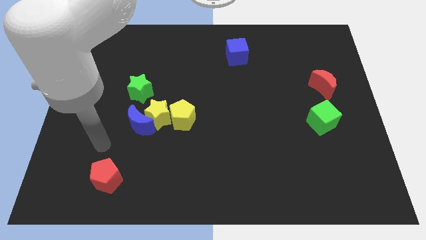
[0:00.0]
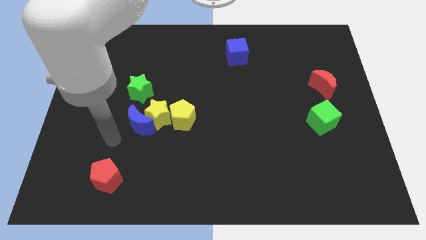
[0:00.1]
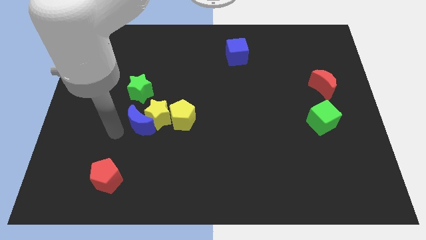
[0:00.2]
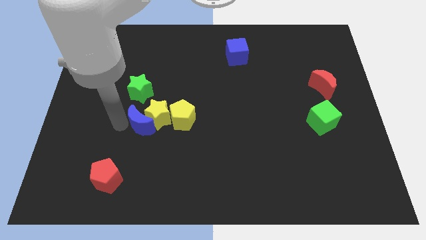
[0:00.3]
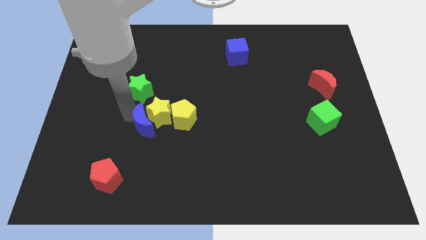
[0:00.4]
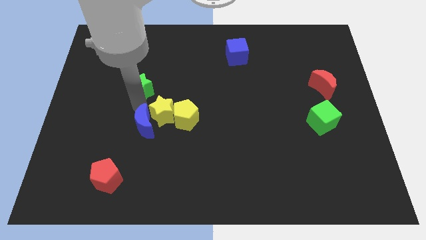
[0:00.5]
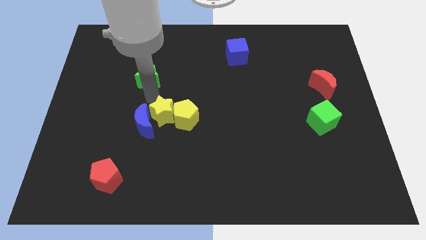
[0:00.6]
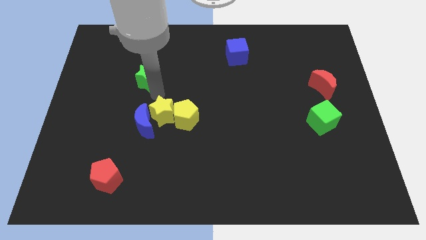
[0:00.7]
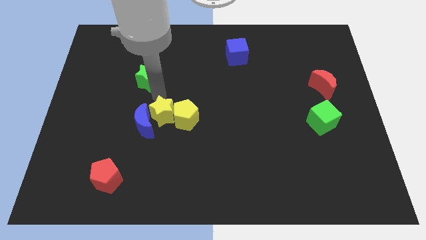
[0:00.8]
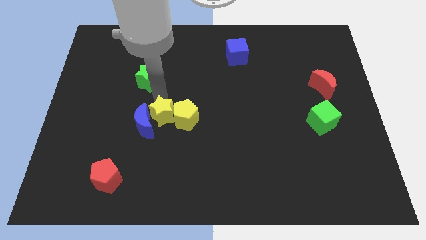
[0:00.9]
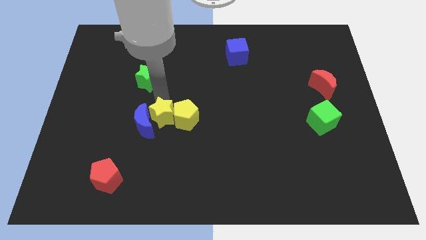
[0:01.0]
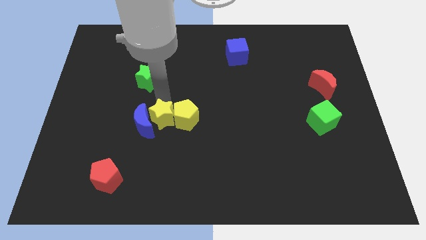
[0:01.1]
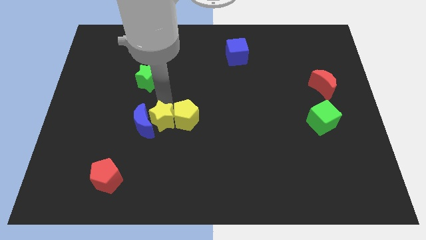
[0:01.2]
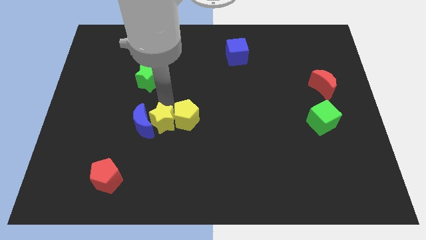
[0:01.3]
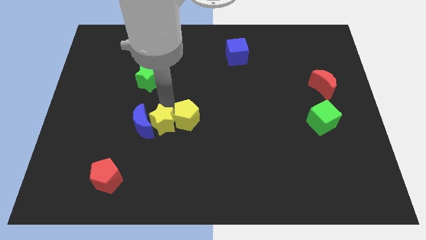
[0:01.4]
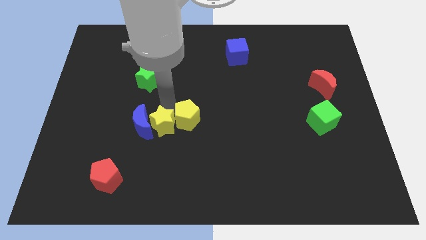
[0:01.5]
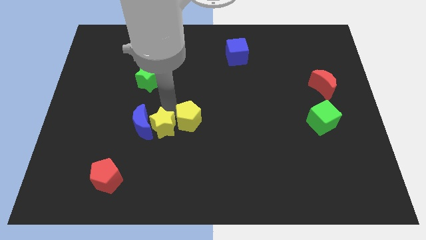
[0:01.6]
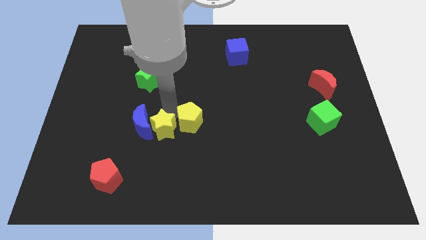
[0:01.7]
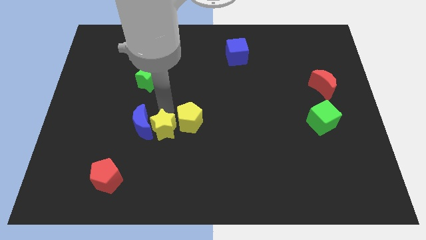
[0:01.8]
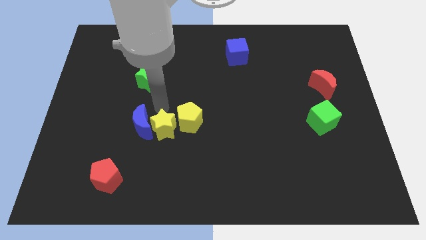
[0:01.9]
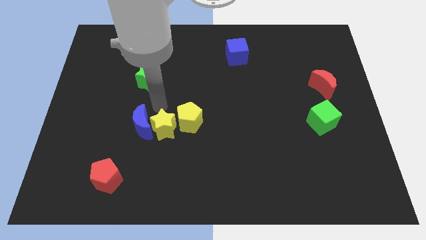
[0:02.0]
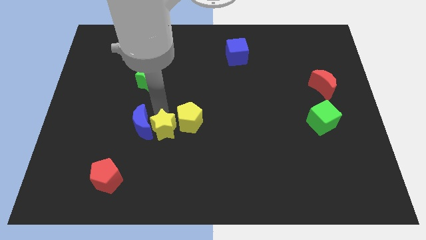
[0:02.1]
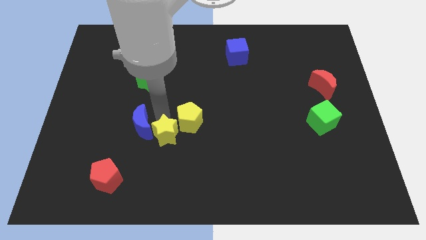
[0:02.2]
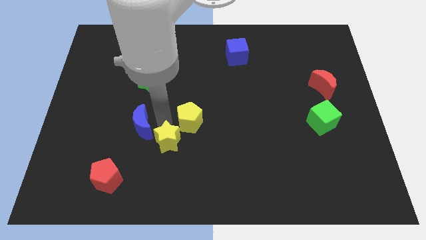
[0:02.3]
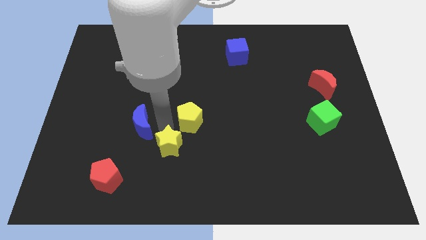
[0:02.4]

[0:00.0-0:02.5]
move the yellow star away from the blue moon, yellow pentagon, and green star

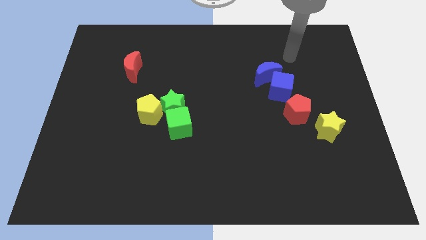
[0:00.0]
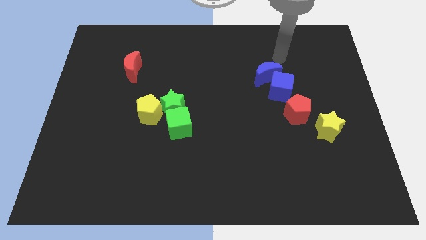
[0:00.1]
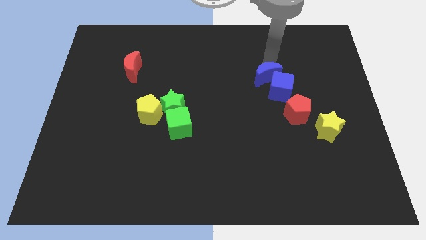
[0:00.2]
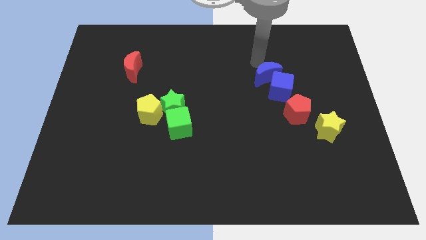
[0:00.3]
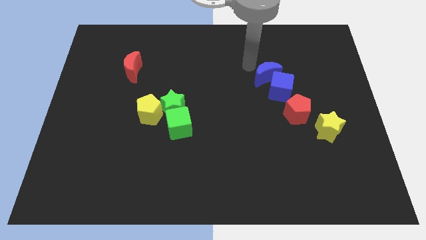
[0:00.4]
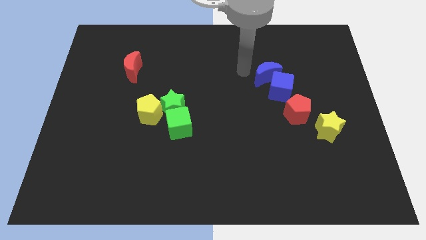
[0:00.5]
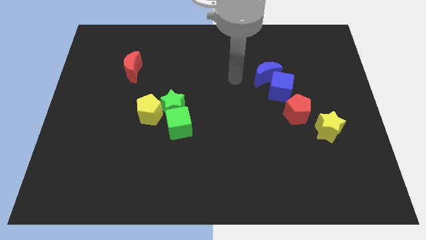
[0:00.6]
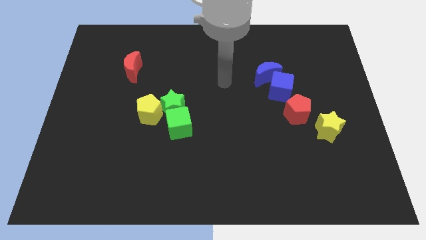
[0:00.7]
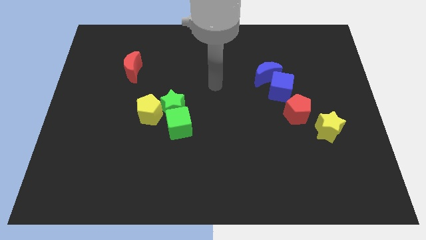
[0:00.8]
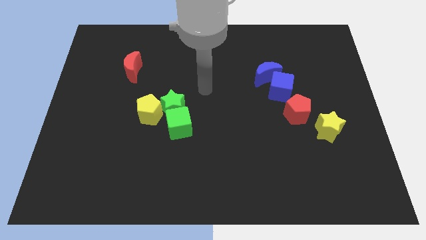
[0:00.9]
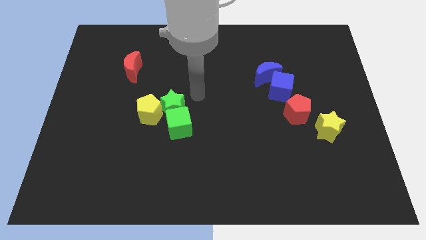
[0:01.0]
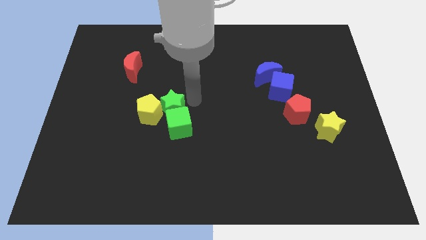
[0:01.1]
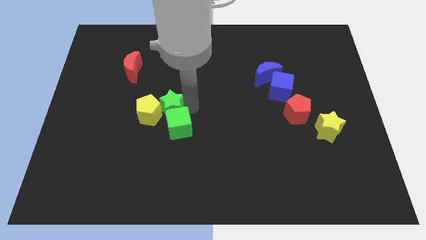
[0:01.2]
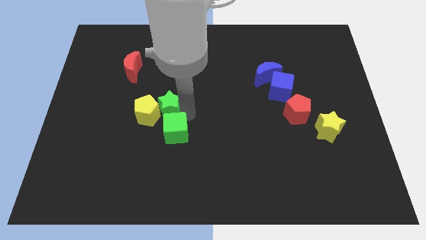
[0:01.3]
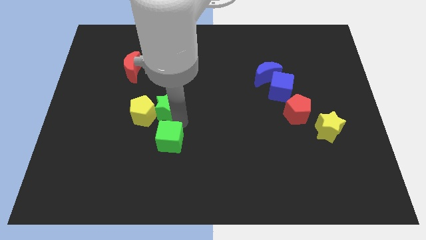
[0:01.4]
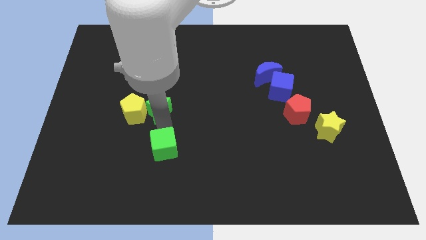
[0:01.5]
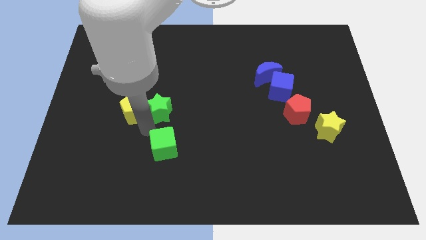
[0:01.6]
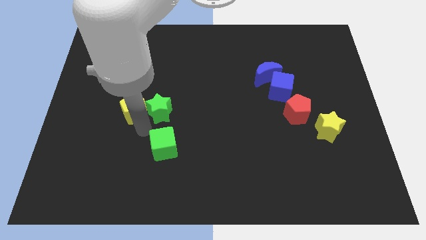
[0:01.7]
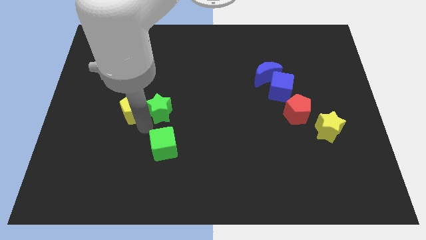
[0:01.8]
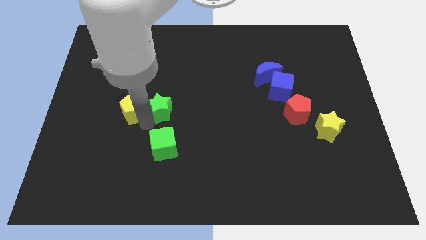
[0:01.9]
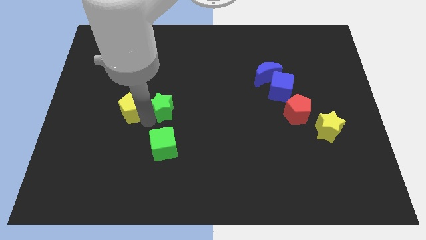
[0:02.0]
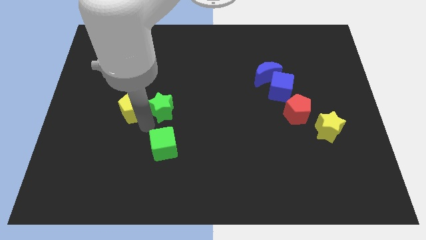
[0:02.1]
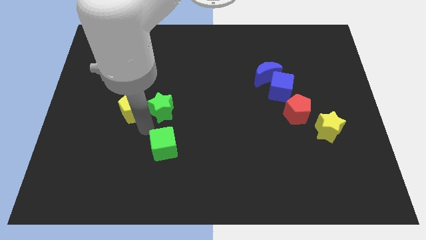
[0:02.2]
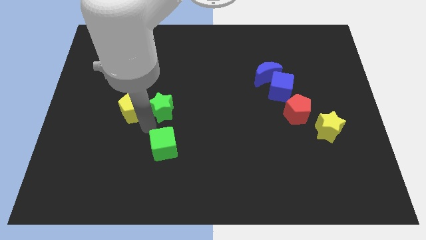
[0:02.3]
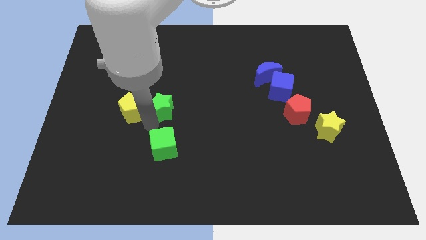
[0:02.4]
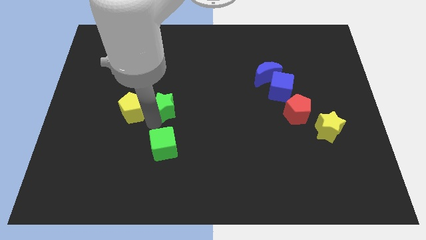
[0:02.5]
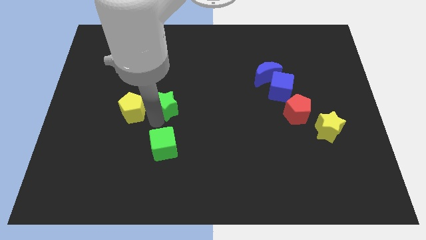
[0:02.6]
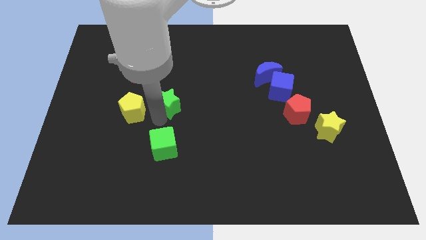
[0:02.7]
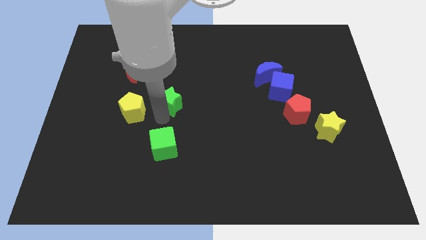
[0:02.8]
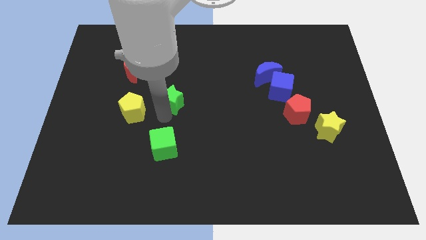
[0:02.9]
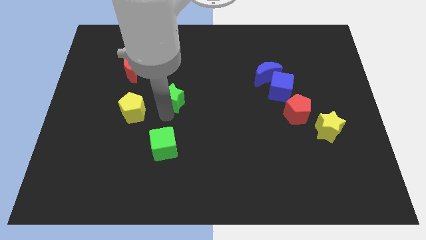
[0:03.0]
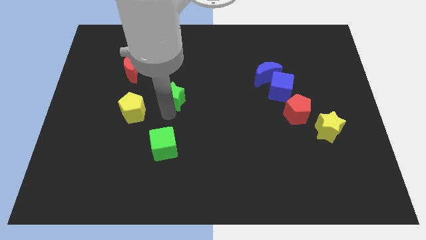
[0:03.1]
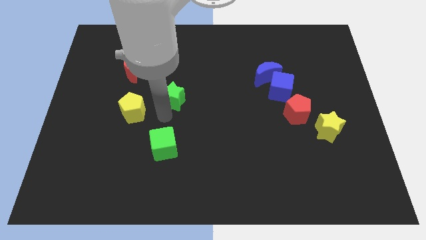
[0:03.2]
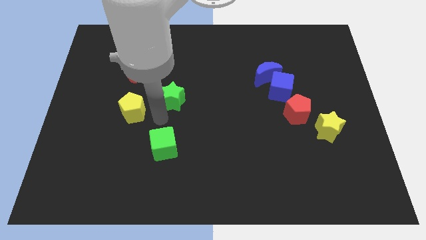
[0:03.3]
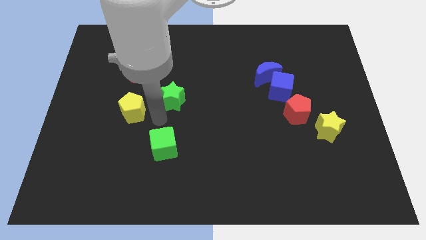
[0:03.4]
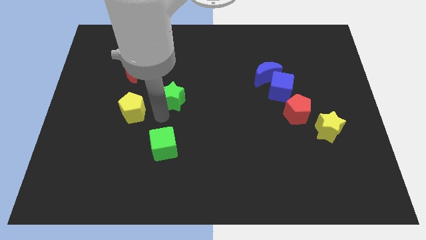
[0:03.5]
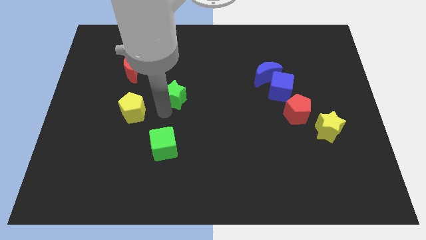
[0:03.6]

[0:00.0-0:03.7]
move the green star away from the green cube and yellow pentagon

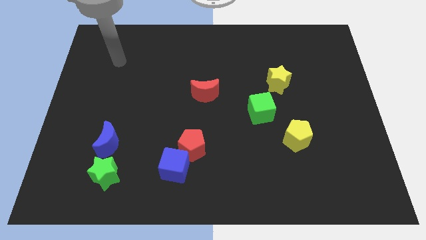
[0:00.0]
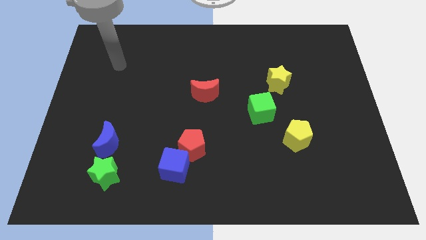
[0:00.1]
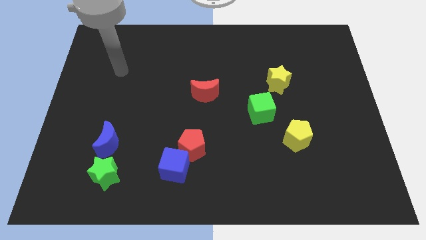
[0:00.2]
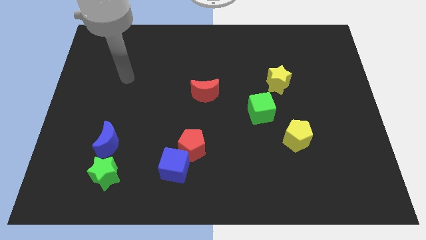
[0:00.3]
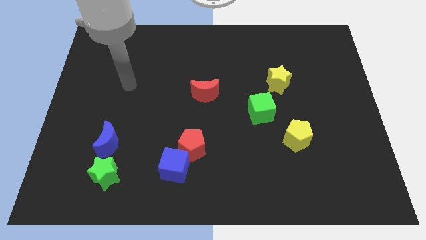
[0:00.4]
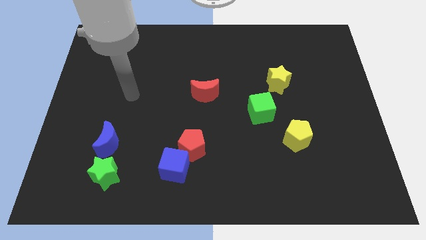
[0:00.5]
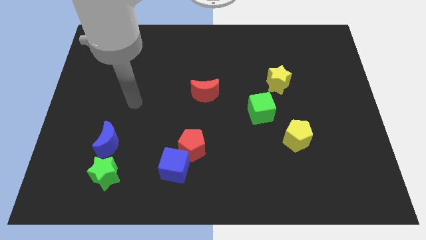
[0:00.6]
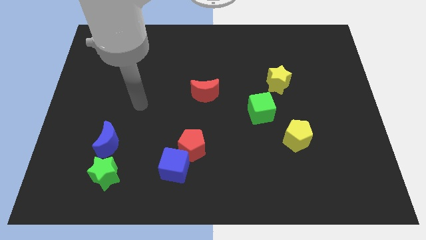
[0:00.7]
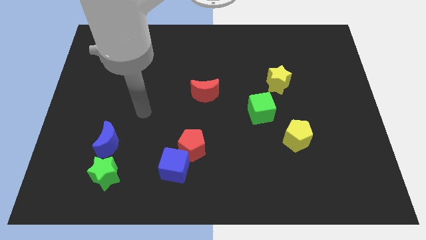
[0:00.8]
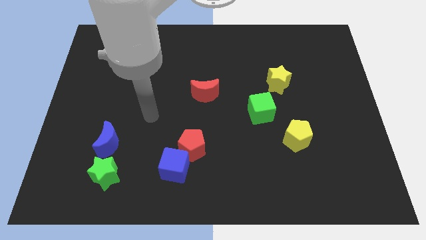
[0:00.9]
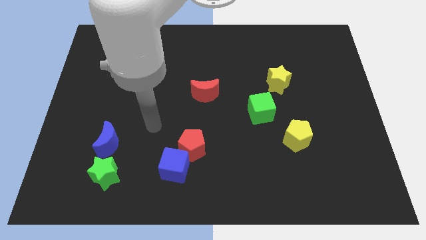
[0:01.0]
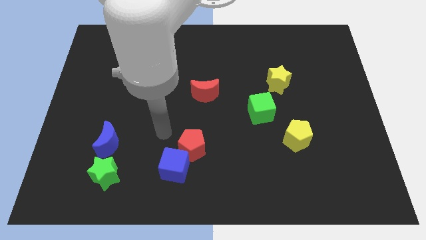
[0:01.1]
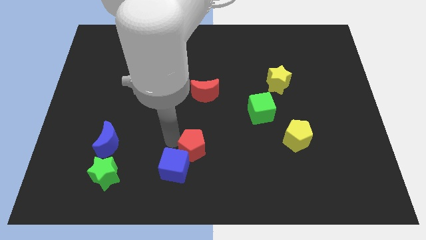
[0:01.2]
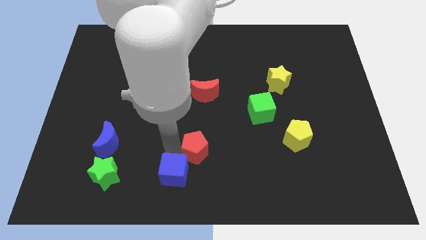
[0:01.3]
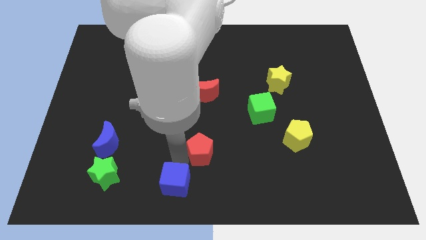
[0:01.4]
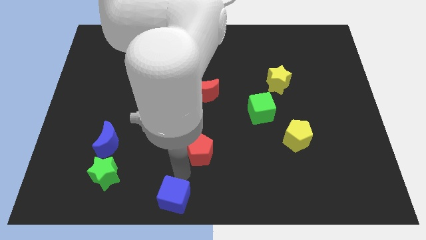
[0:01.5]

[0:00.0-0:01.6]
separate the red pentagon from the blue cube

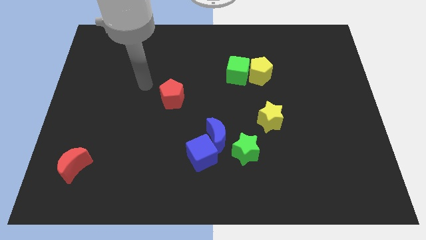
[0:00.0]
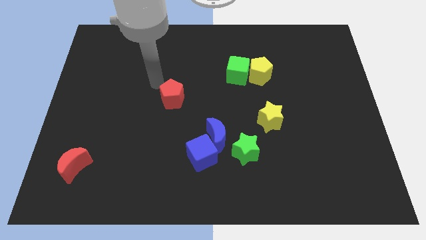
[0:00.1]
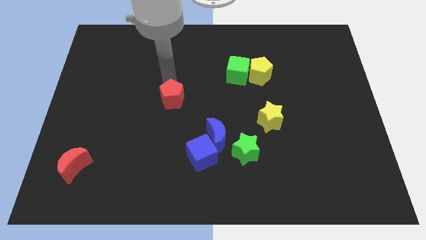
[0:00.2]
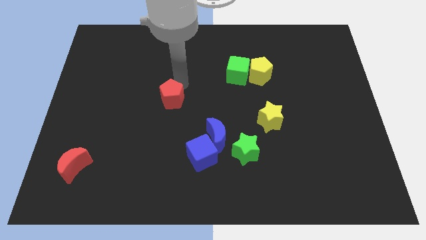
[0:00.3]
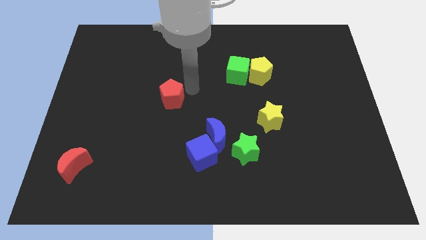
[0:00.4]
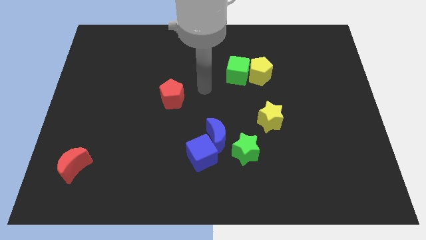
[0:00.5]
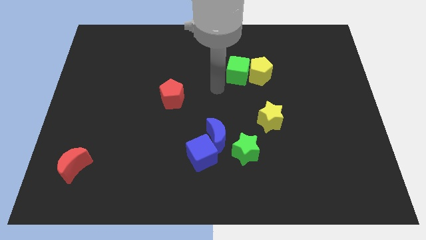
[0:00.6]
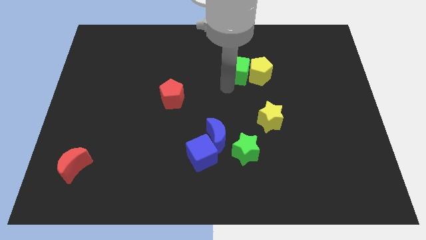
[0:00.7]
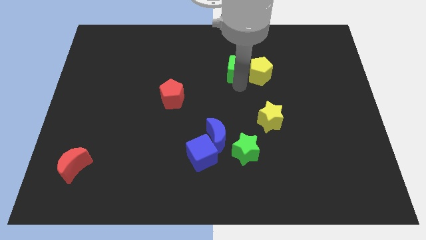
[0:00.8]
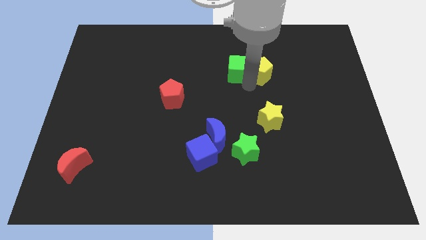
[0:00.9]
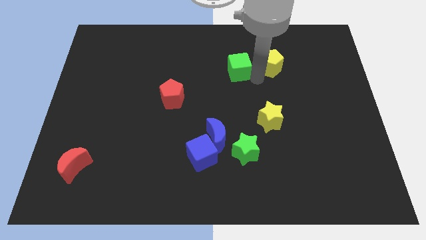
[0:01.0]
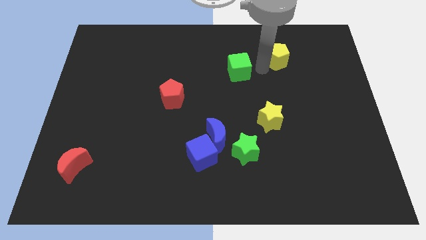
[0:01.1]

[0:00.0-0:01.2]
pull the green cube apart from the yellow pentagon
